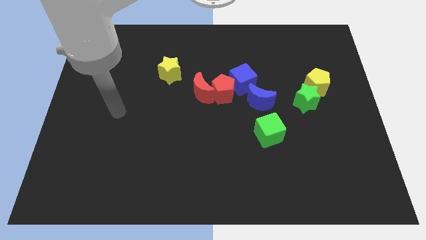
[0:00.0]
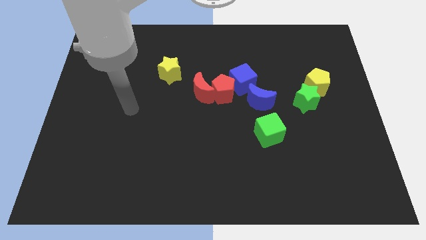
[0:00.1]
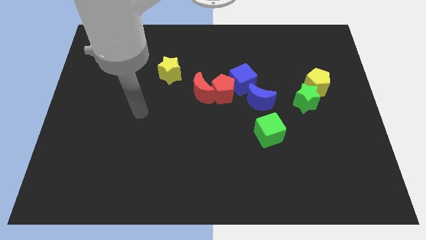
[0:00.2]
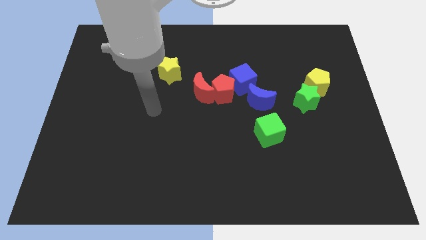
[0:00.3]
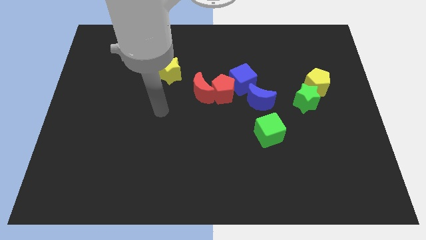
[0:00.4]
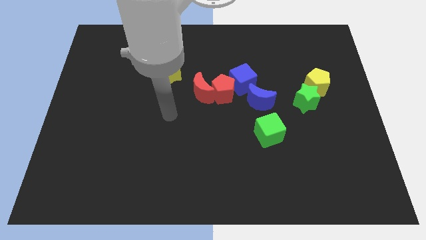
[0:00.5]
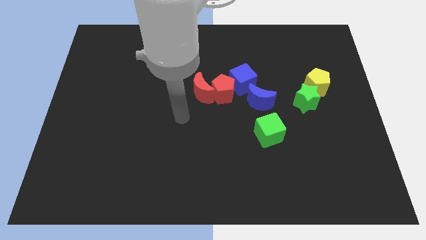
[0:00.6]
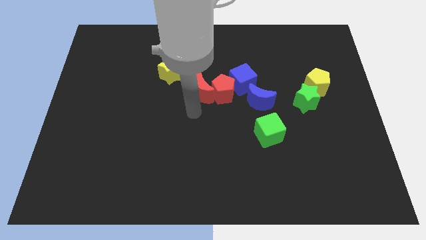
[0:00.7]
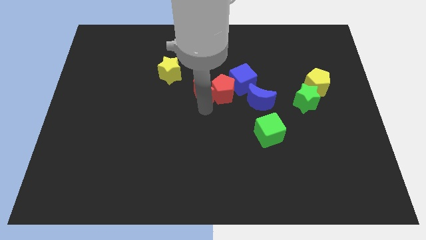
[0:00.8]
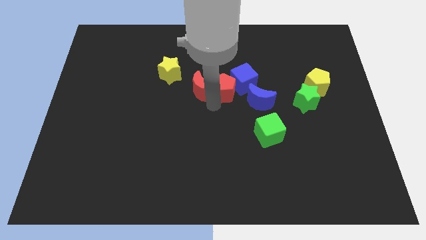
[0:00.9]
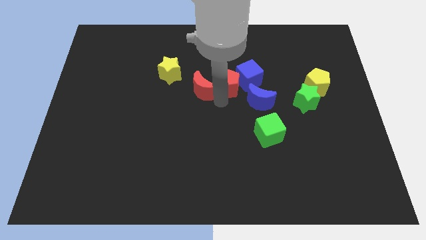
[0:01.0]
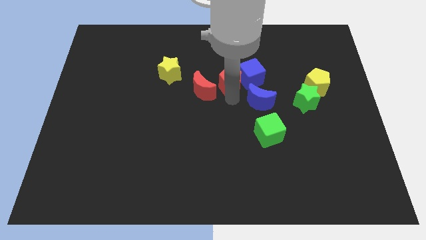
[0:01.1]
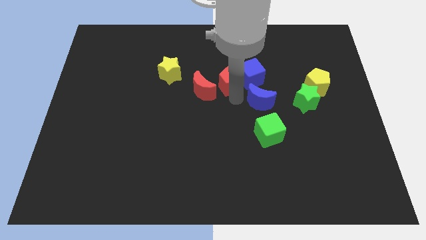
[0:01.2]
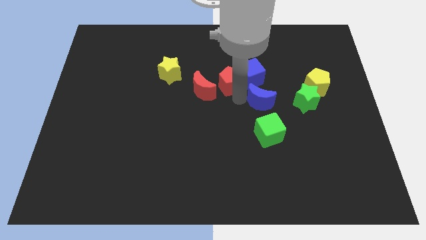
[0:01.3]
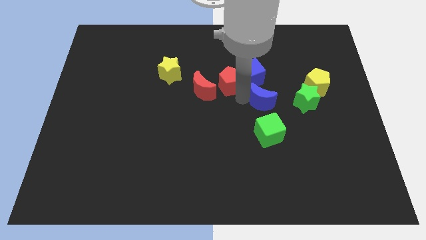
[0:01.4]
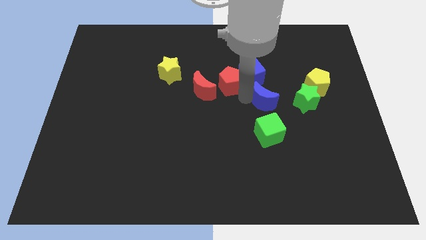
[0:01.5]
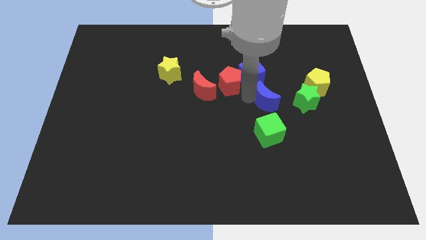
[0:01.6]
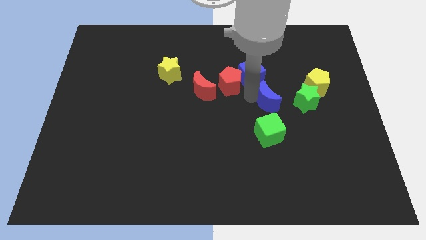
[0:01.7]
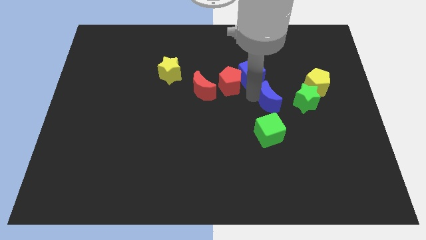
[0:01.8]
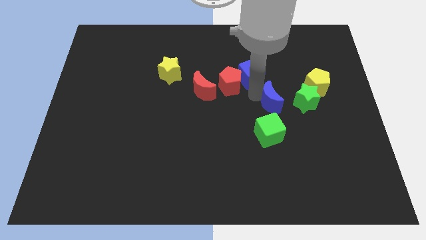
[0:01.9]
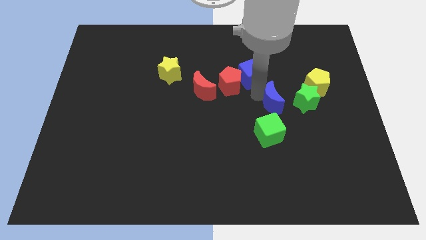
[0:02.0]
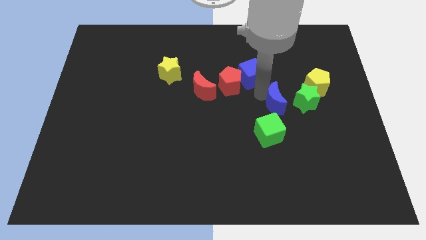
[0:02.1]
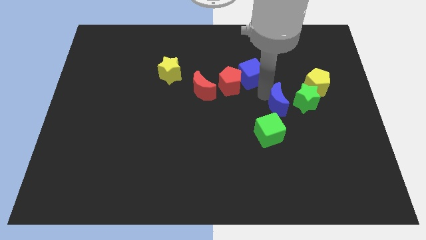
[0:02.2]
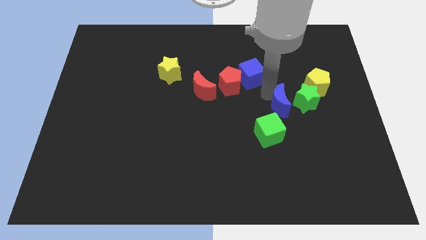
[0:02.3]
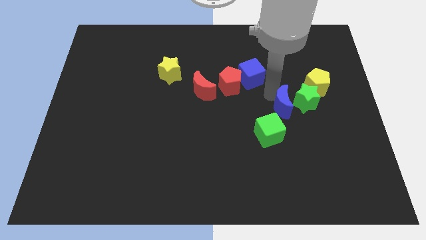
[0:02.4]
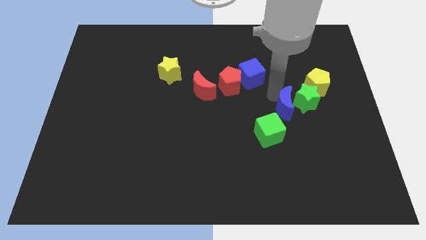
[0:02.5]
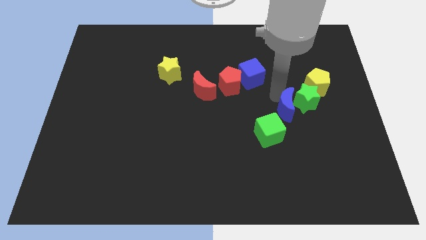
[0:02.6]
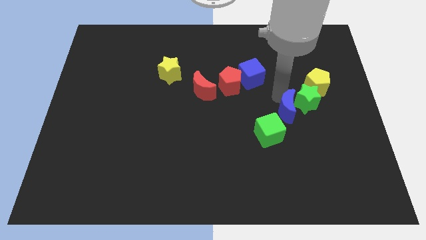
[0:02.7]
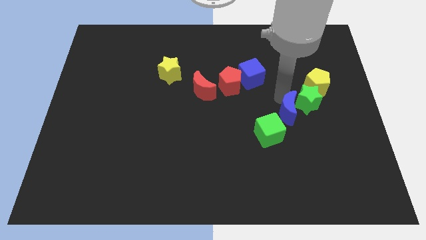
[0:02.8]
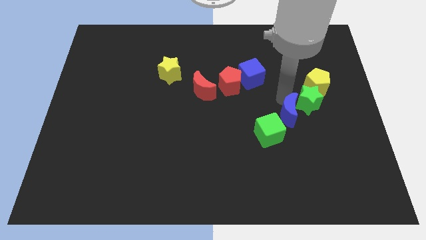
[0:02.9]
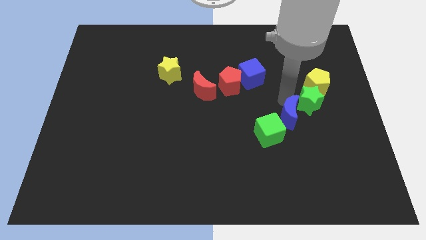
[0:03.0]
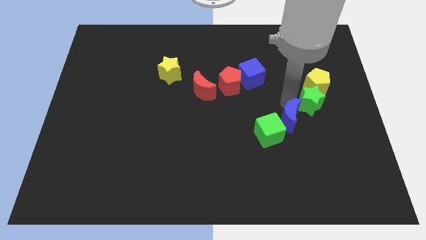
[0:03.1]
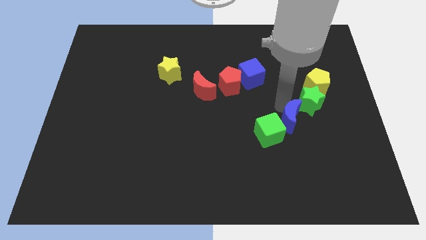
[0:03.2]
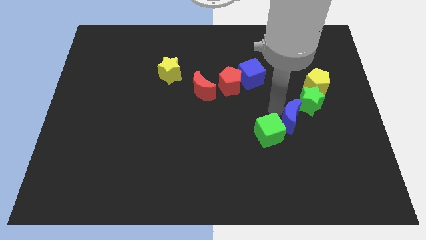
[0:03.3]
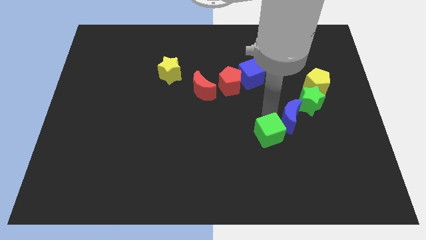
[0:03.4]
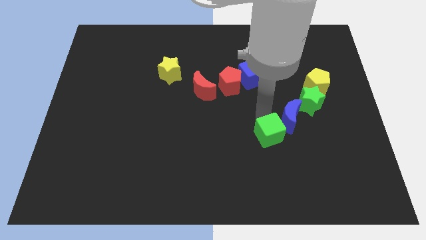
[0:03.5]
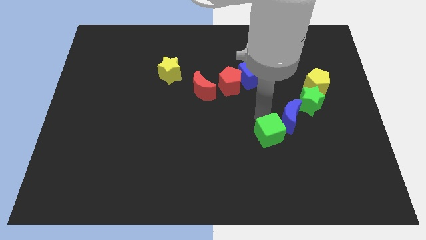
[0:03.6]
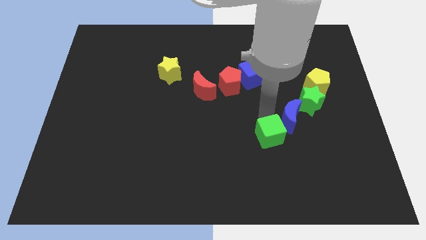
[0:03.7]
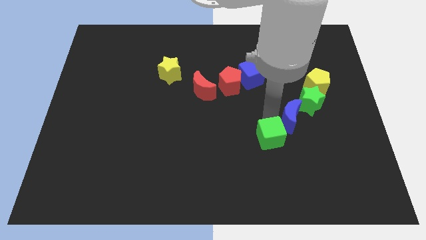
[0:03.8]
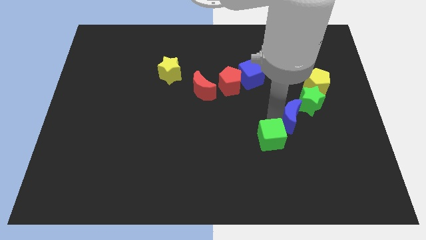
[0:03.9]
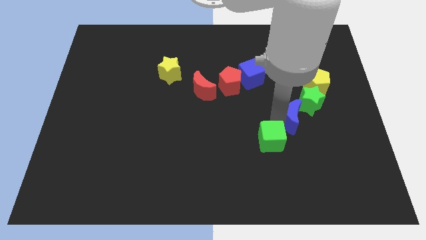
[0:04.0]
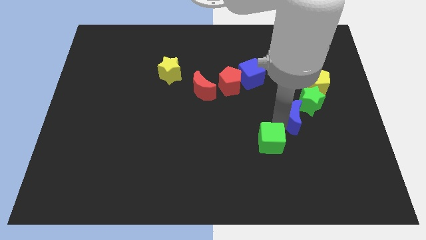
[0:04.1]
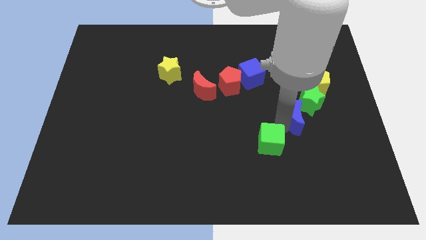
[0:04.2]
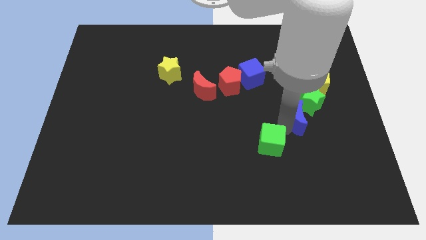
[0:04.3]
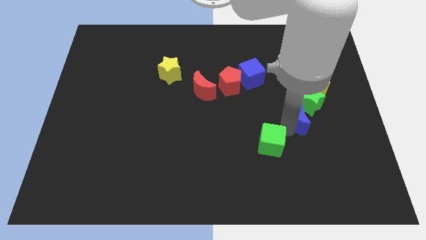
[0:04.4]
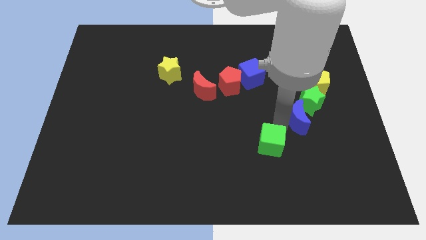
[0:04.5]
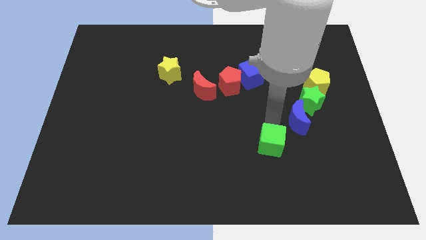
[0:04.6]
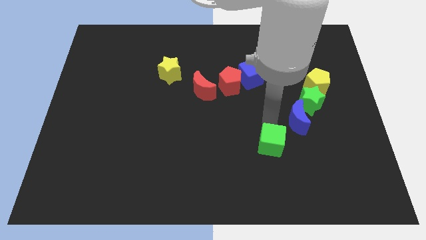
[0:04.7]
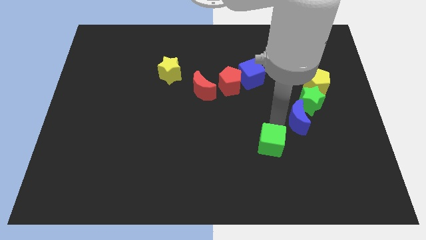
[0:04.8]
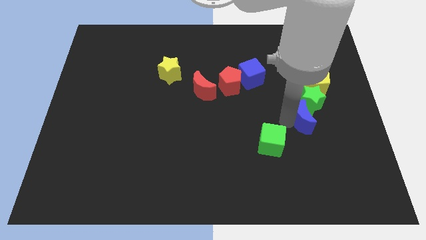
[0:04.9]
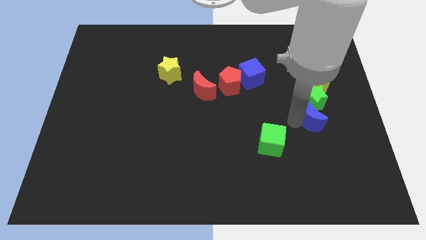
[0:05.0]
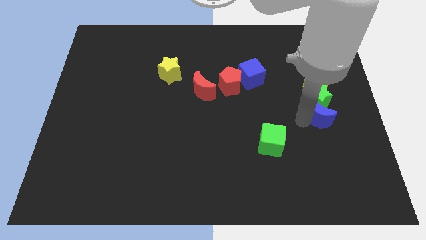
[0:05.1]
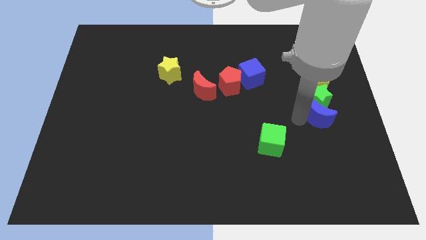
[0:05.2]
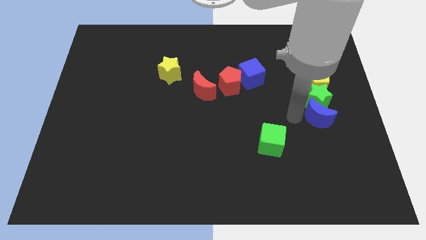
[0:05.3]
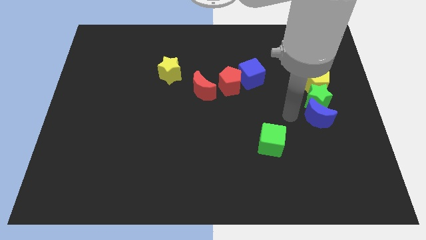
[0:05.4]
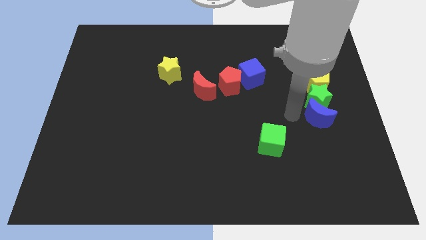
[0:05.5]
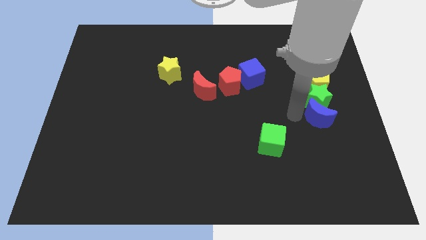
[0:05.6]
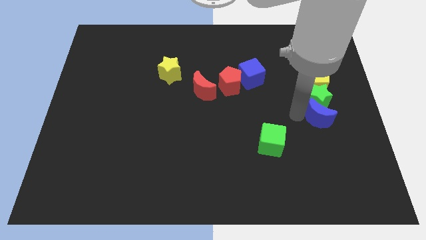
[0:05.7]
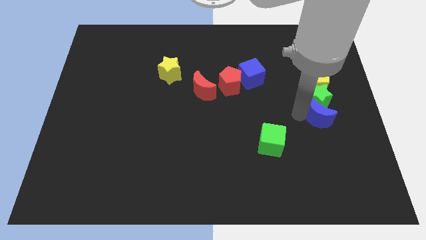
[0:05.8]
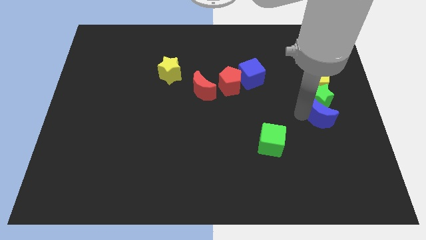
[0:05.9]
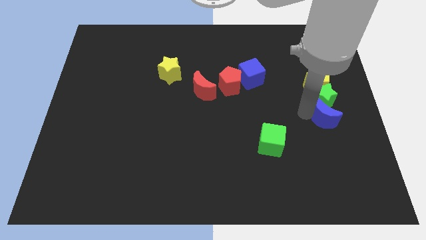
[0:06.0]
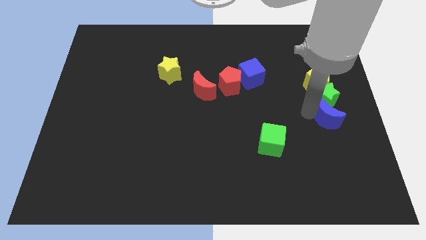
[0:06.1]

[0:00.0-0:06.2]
push the blue moon to the right side of the board
